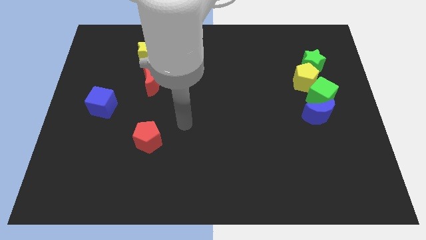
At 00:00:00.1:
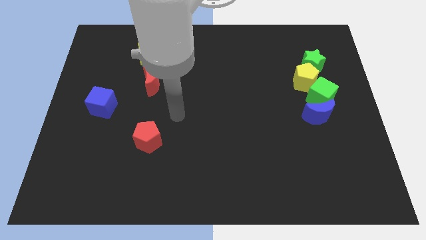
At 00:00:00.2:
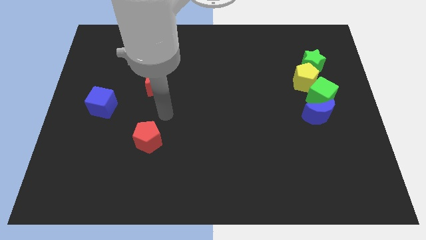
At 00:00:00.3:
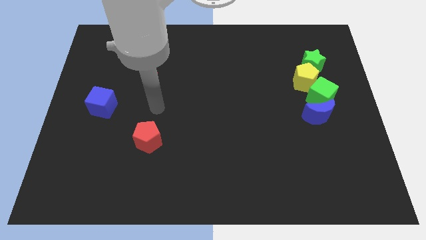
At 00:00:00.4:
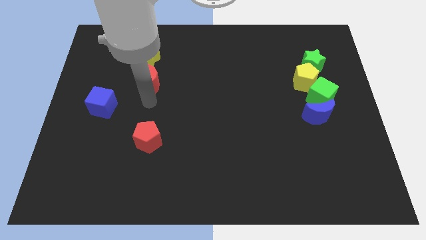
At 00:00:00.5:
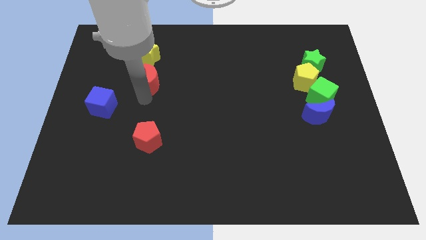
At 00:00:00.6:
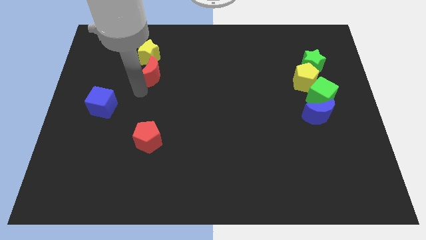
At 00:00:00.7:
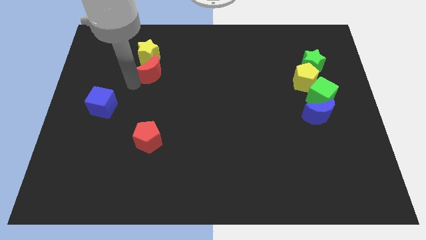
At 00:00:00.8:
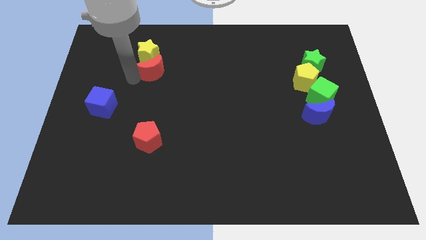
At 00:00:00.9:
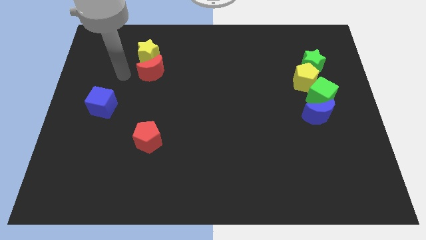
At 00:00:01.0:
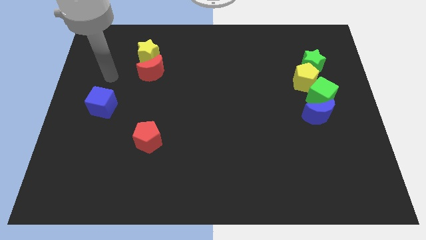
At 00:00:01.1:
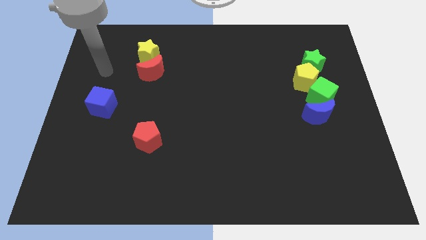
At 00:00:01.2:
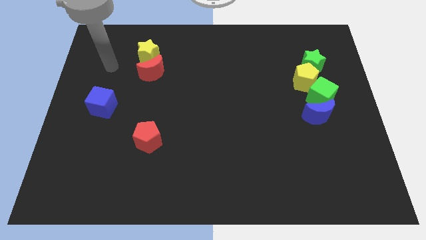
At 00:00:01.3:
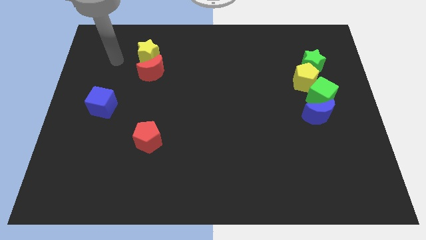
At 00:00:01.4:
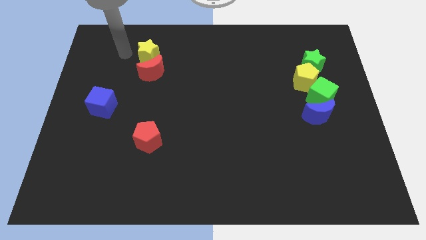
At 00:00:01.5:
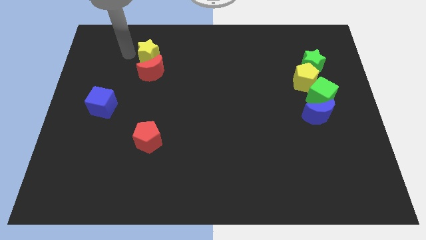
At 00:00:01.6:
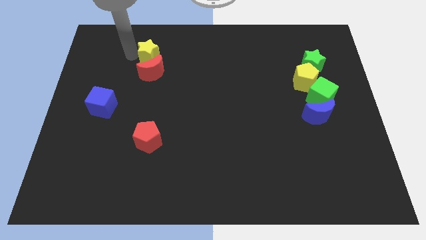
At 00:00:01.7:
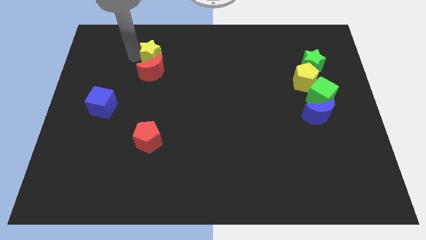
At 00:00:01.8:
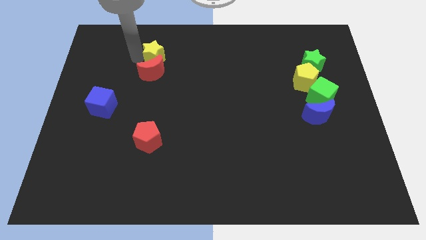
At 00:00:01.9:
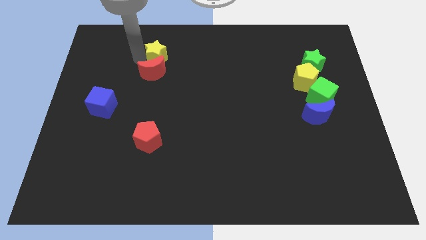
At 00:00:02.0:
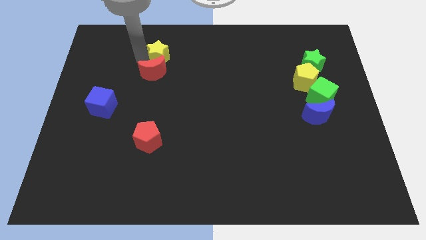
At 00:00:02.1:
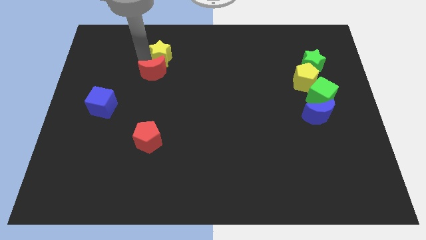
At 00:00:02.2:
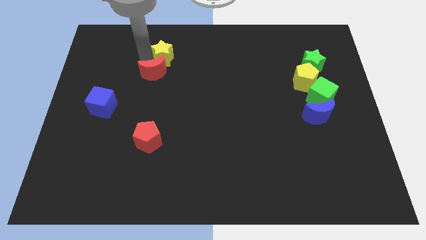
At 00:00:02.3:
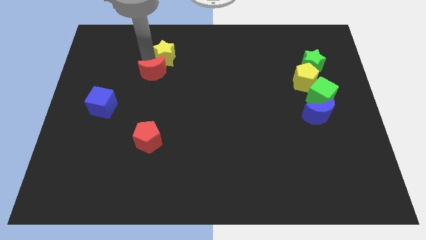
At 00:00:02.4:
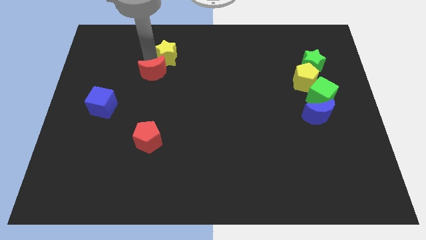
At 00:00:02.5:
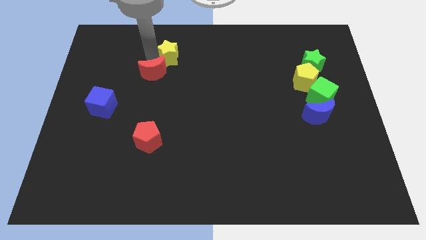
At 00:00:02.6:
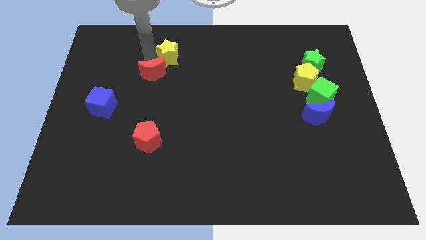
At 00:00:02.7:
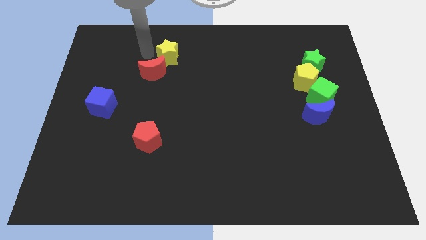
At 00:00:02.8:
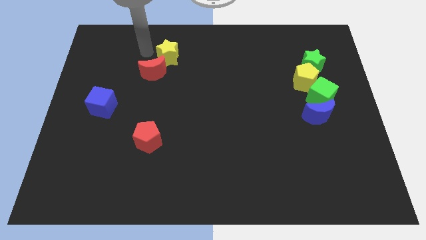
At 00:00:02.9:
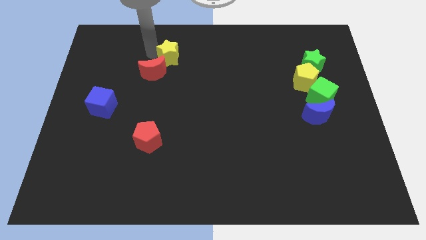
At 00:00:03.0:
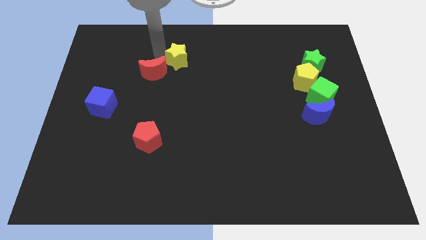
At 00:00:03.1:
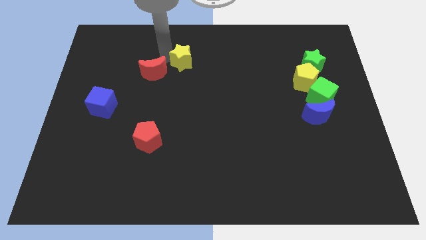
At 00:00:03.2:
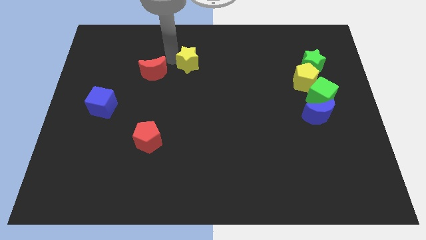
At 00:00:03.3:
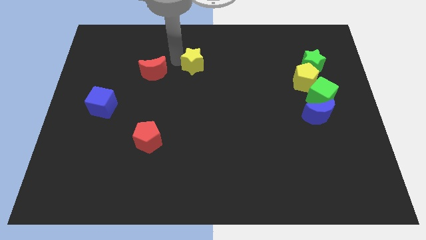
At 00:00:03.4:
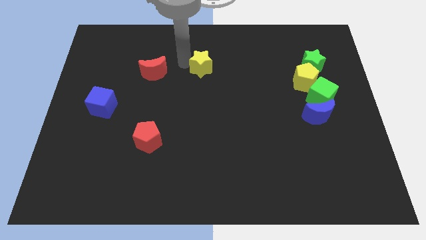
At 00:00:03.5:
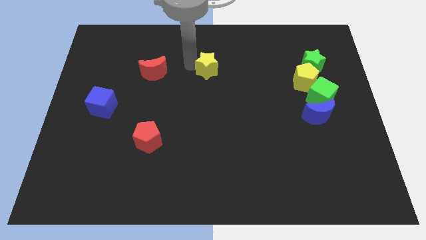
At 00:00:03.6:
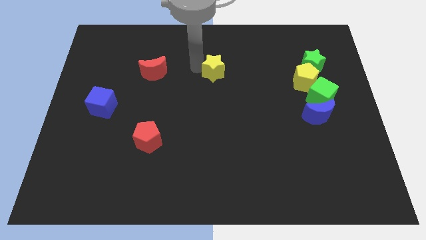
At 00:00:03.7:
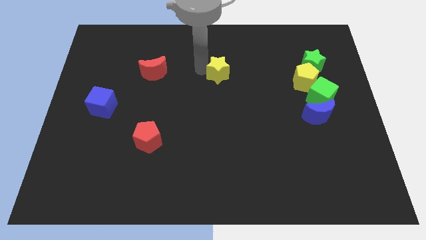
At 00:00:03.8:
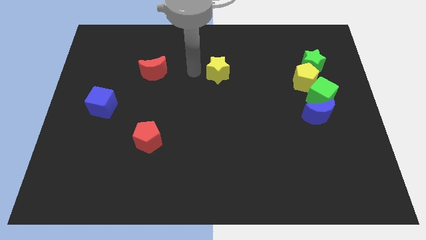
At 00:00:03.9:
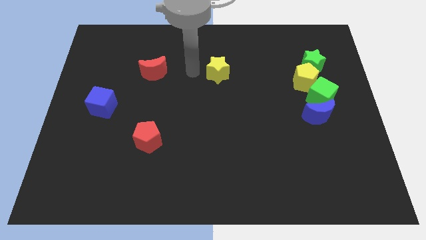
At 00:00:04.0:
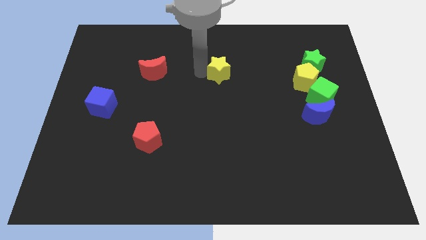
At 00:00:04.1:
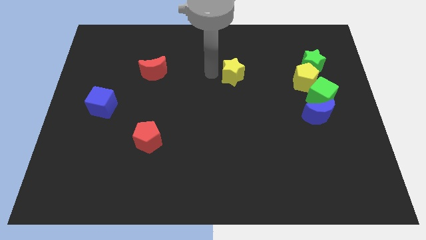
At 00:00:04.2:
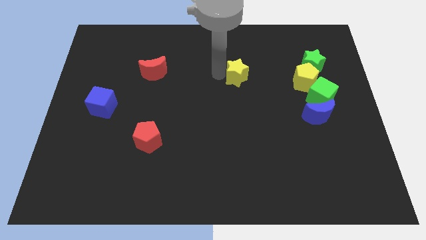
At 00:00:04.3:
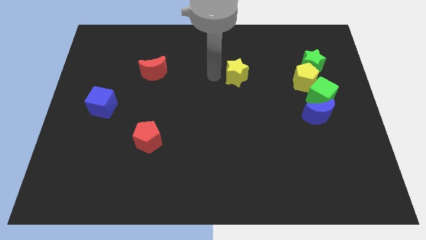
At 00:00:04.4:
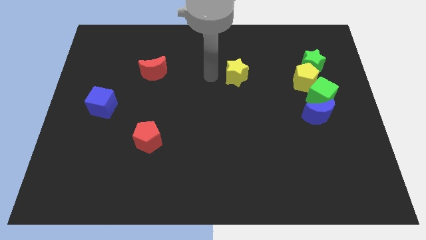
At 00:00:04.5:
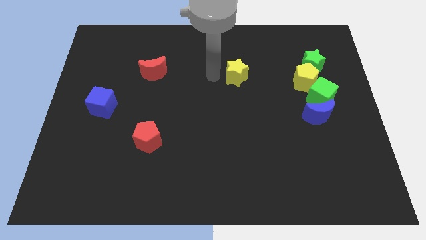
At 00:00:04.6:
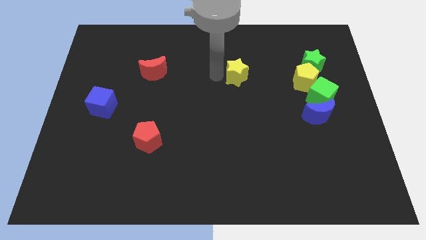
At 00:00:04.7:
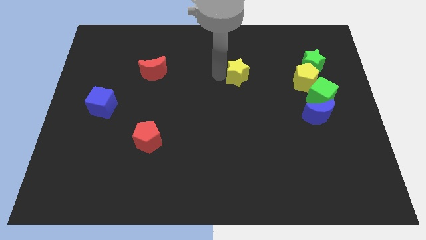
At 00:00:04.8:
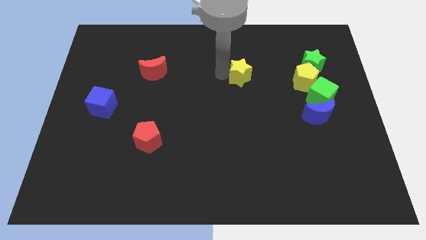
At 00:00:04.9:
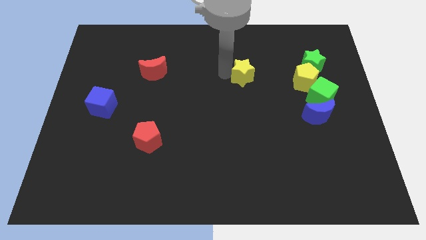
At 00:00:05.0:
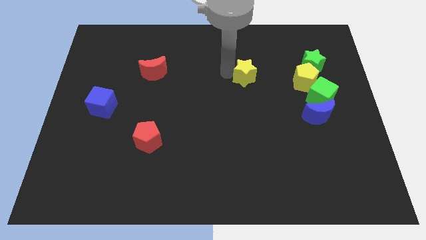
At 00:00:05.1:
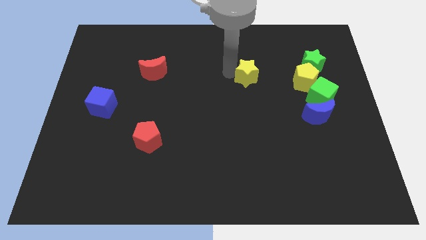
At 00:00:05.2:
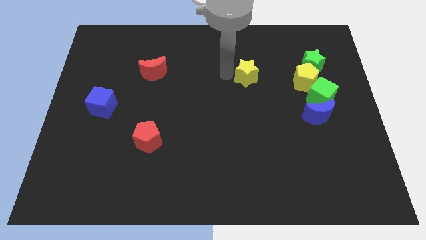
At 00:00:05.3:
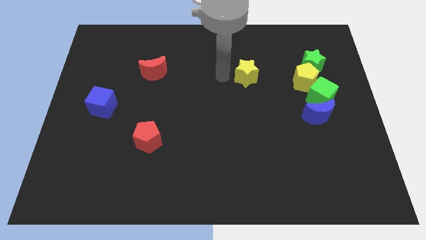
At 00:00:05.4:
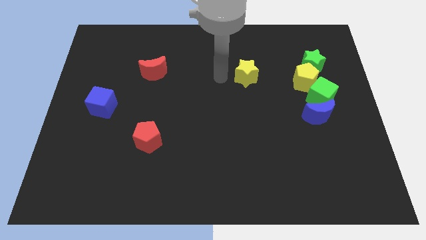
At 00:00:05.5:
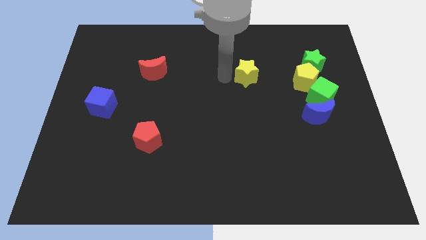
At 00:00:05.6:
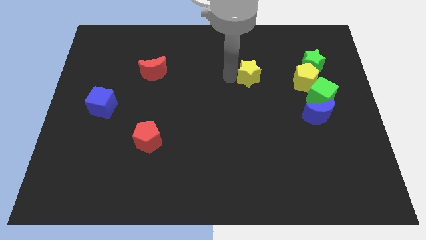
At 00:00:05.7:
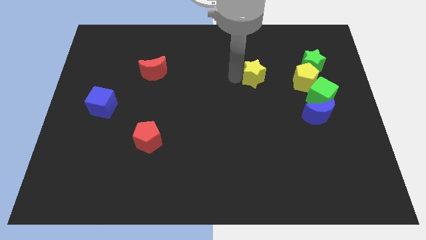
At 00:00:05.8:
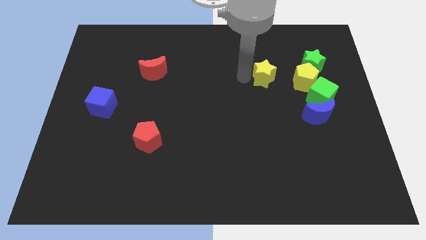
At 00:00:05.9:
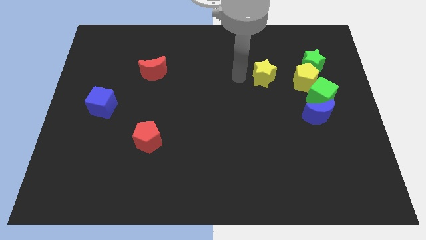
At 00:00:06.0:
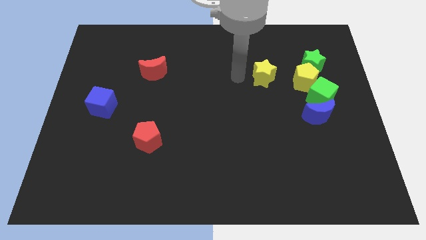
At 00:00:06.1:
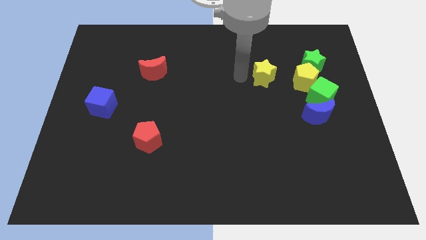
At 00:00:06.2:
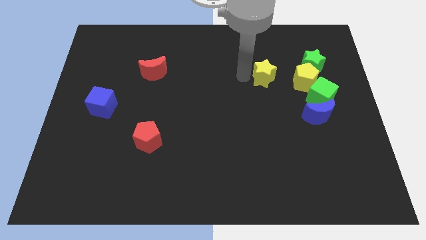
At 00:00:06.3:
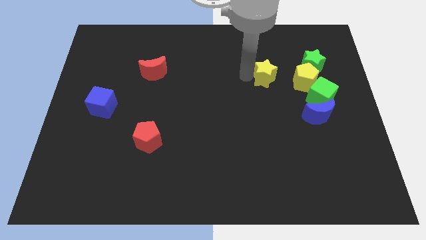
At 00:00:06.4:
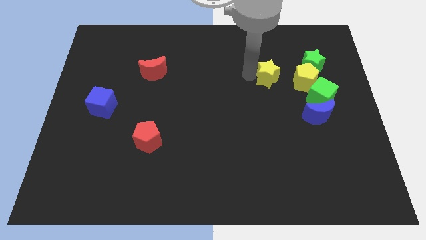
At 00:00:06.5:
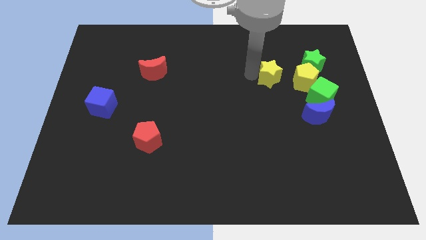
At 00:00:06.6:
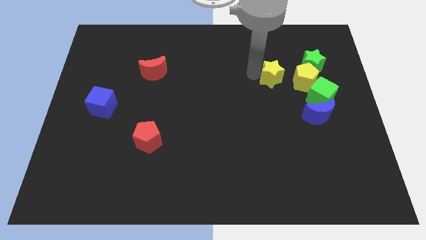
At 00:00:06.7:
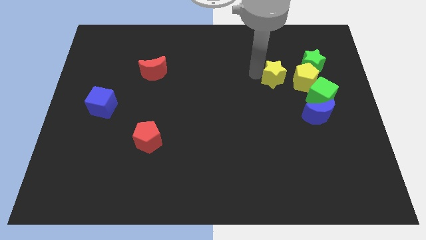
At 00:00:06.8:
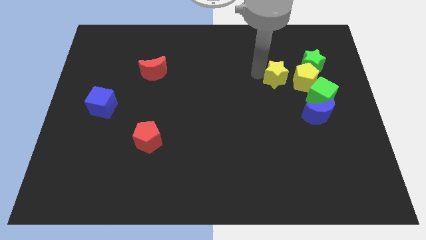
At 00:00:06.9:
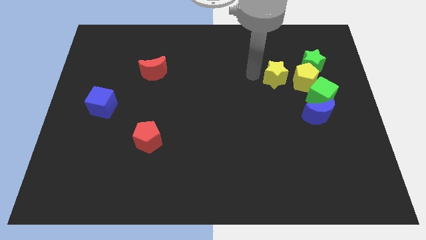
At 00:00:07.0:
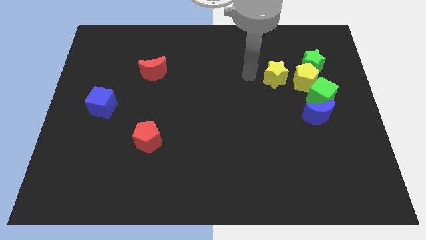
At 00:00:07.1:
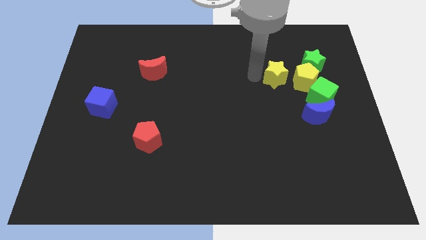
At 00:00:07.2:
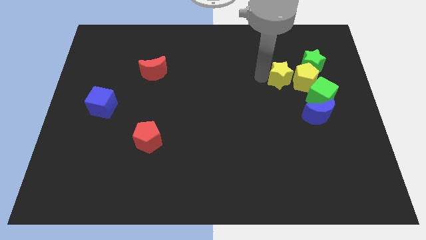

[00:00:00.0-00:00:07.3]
push the yellow star towards the yellow pentagon

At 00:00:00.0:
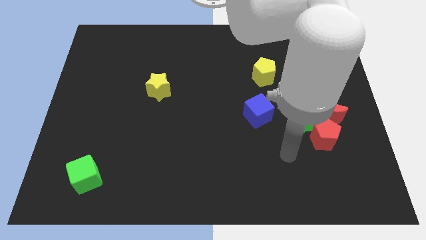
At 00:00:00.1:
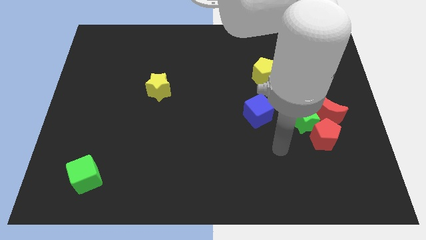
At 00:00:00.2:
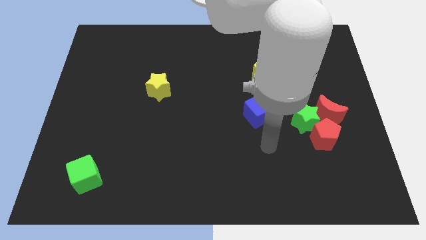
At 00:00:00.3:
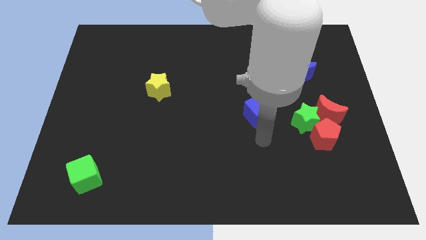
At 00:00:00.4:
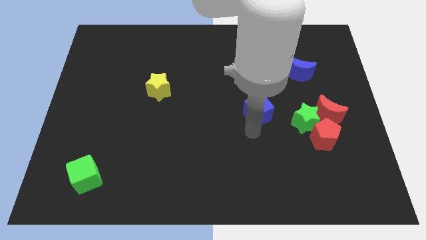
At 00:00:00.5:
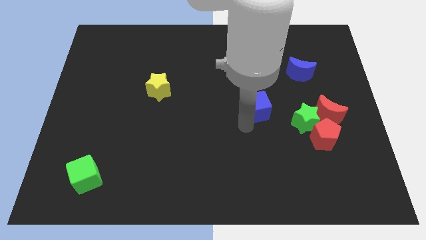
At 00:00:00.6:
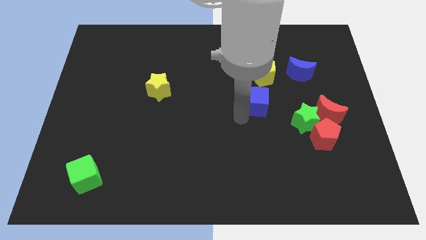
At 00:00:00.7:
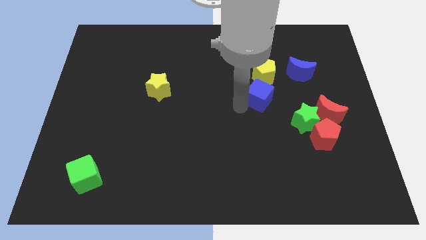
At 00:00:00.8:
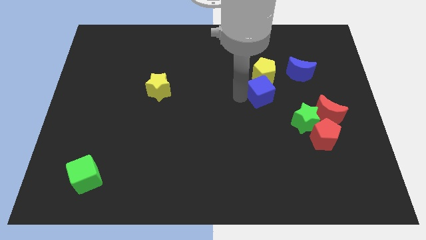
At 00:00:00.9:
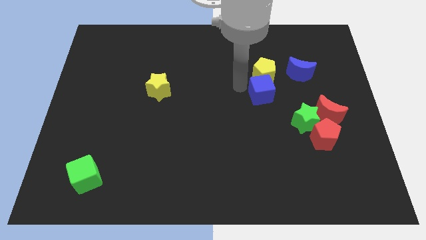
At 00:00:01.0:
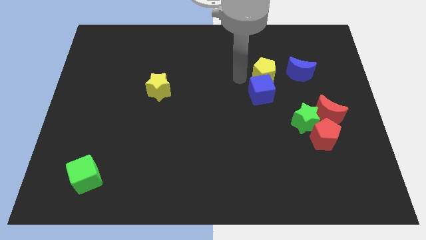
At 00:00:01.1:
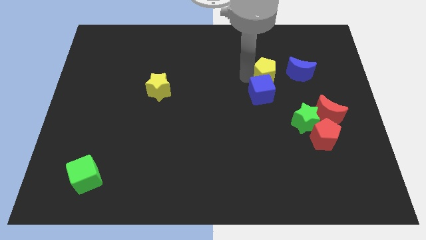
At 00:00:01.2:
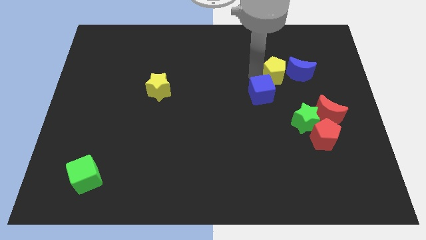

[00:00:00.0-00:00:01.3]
push the yellow pentagon to the blue moon
